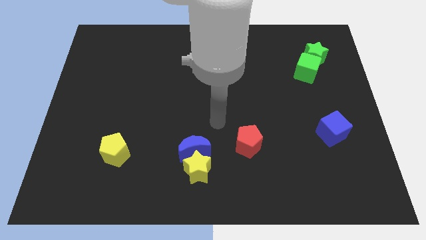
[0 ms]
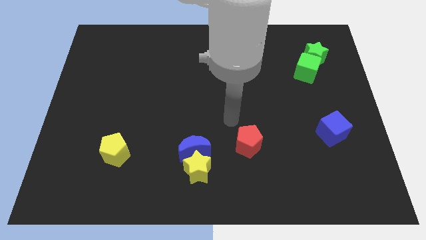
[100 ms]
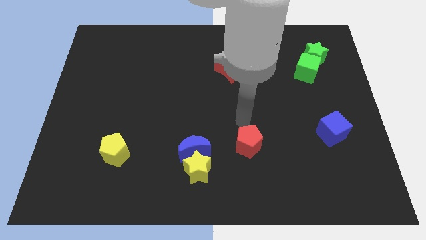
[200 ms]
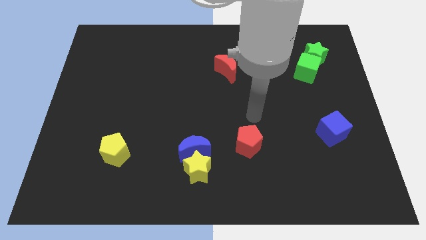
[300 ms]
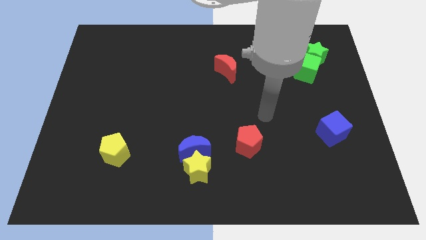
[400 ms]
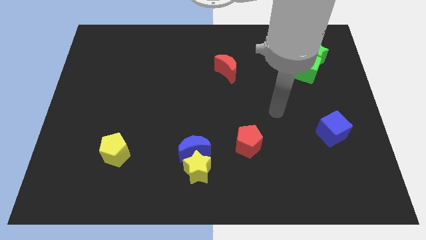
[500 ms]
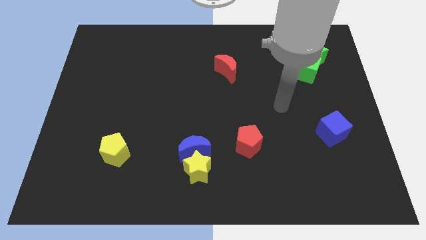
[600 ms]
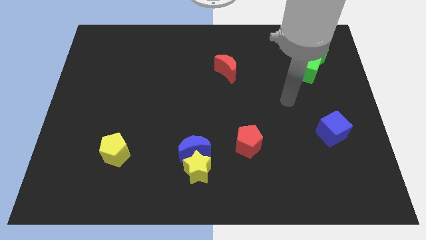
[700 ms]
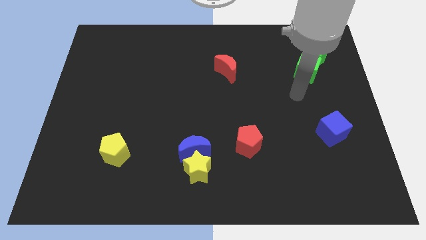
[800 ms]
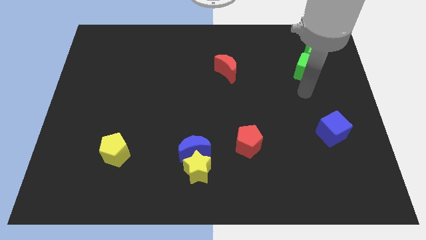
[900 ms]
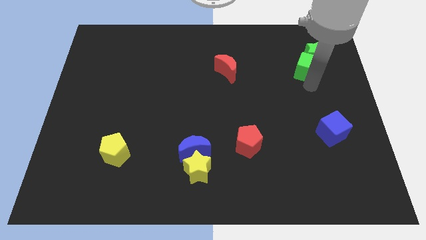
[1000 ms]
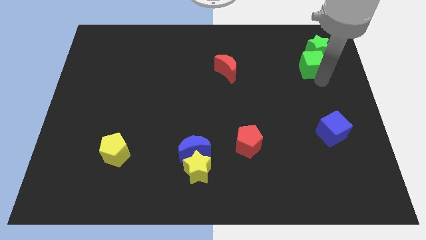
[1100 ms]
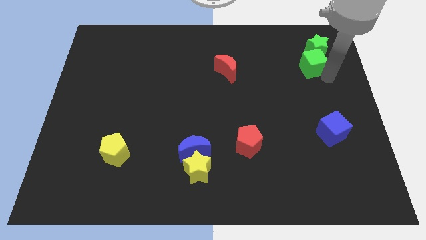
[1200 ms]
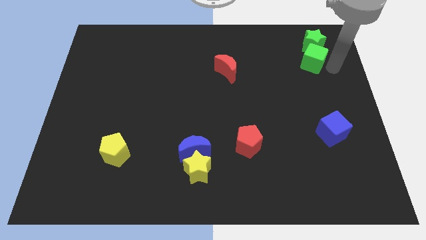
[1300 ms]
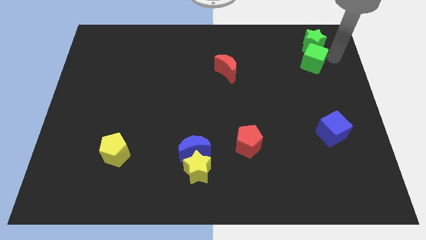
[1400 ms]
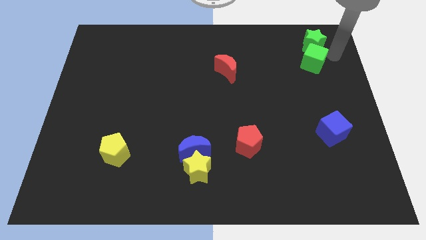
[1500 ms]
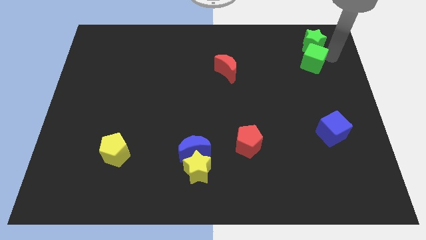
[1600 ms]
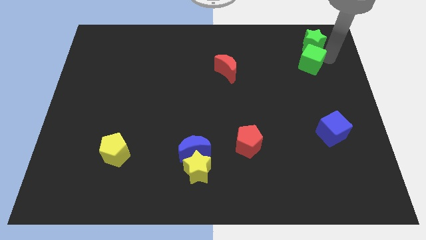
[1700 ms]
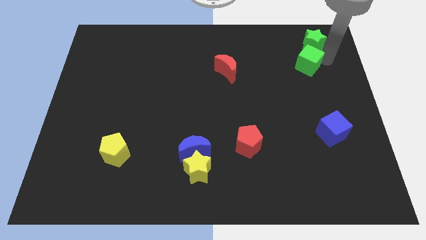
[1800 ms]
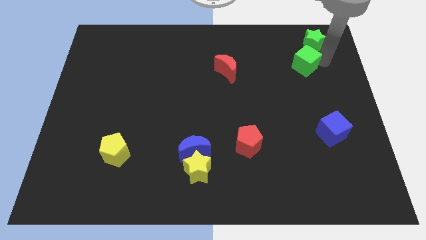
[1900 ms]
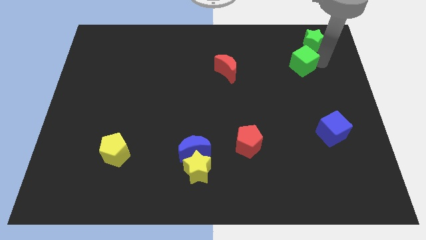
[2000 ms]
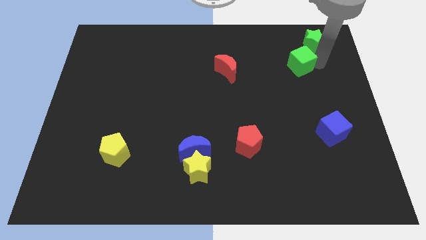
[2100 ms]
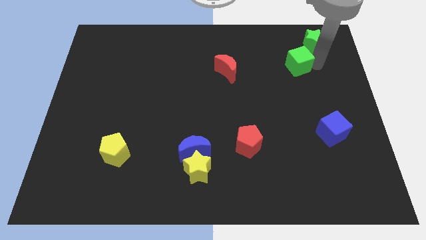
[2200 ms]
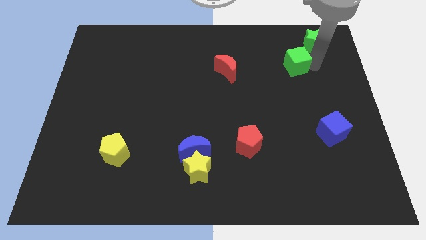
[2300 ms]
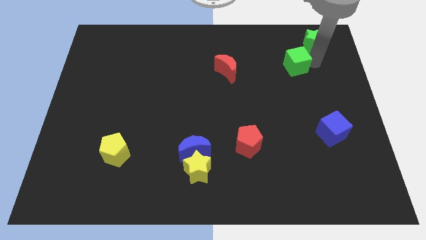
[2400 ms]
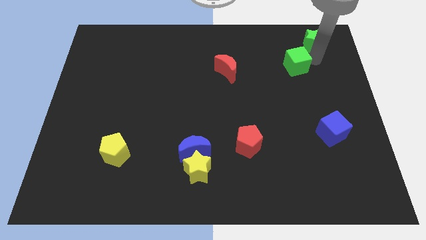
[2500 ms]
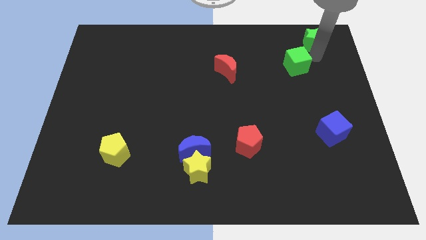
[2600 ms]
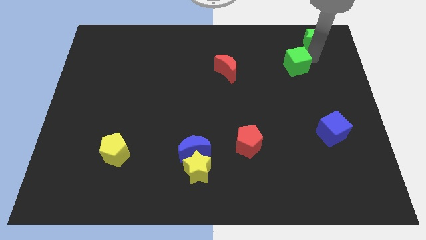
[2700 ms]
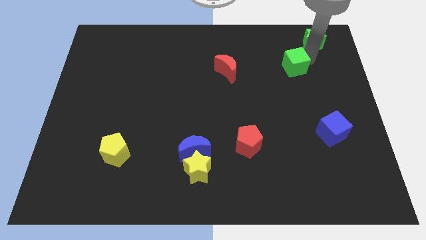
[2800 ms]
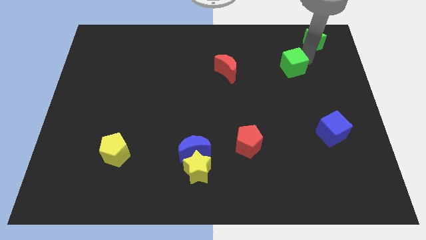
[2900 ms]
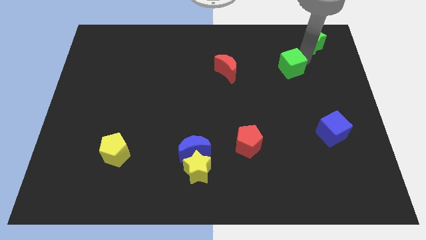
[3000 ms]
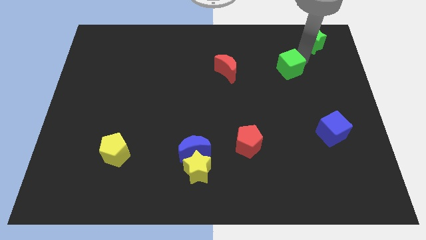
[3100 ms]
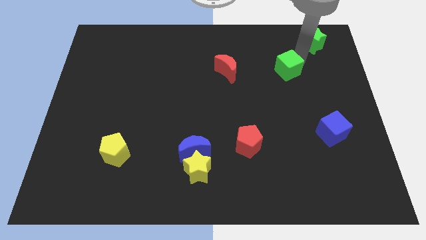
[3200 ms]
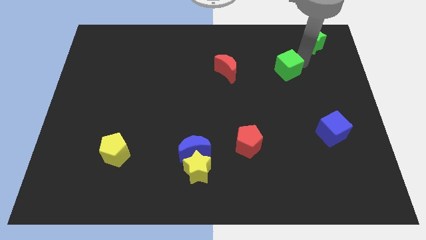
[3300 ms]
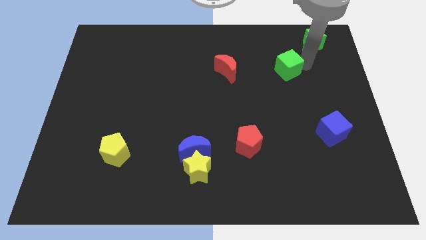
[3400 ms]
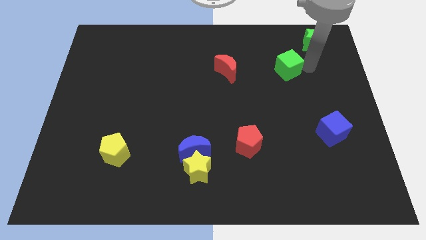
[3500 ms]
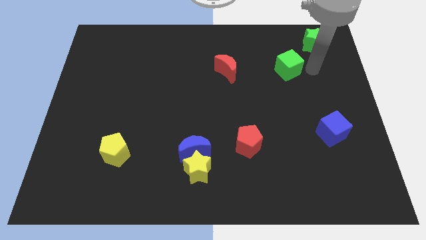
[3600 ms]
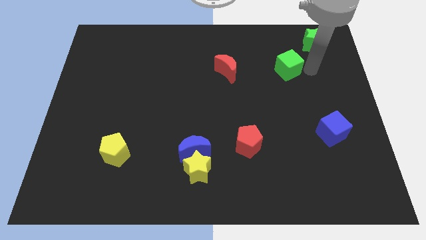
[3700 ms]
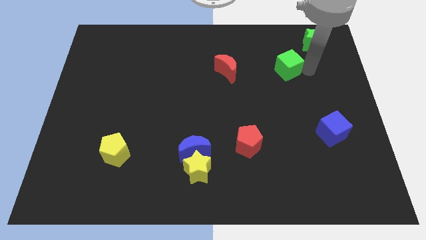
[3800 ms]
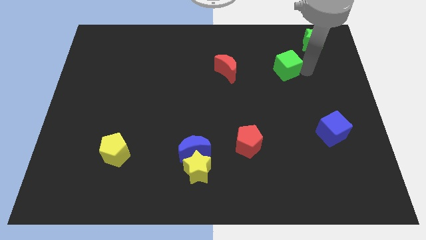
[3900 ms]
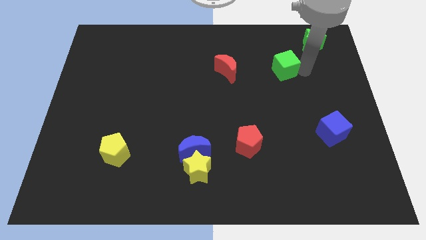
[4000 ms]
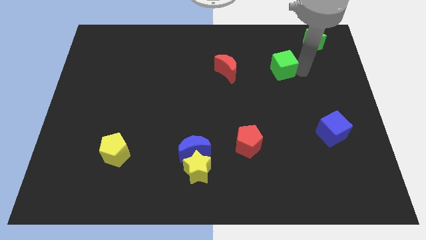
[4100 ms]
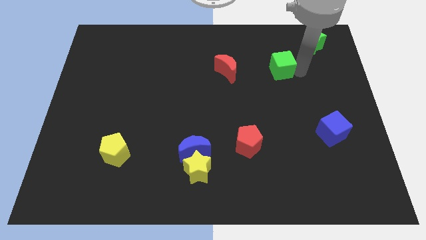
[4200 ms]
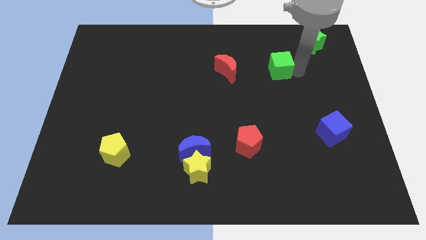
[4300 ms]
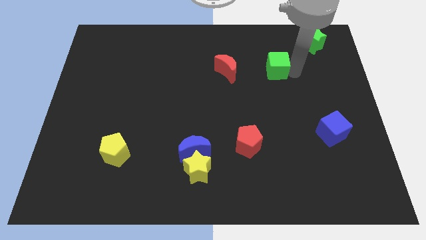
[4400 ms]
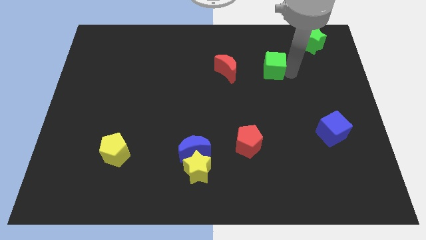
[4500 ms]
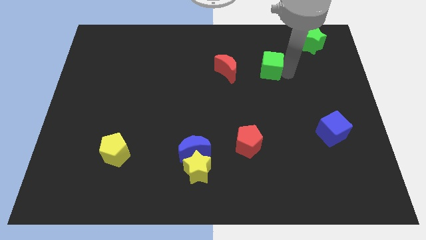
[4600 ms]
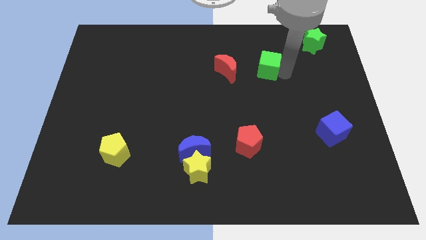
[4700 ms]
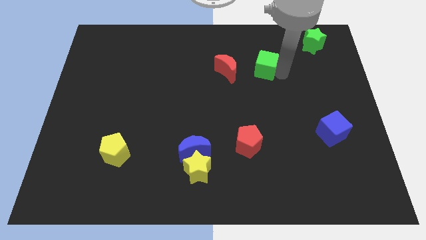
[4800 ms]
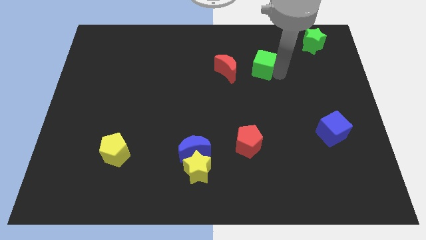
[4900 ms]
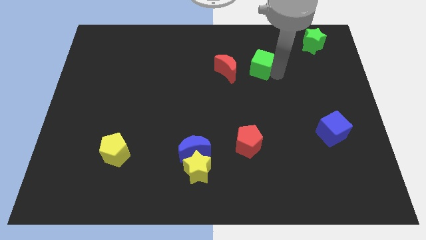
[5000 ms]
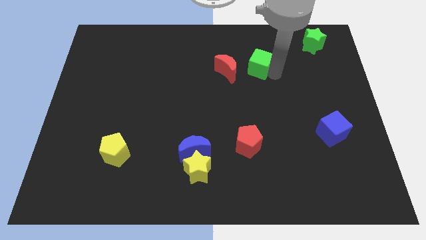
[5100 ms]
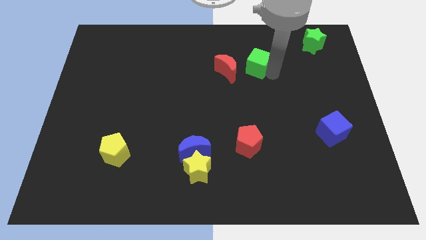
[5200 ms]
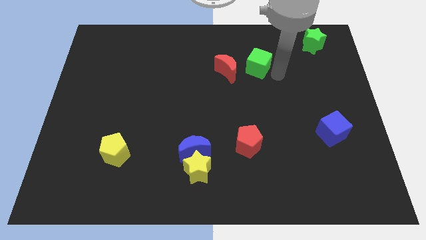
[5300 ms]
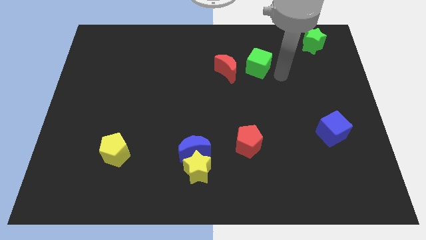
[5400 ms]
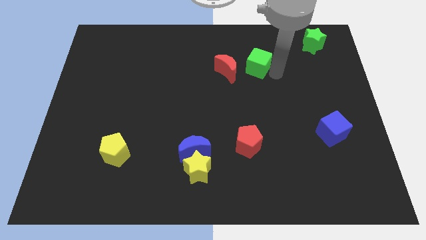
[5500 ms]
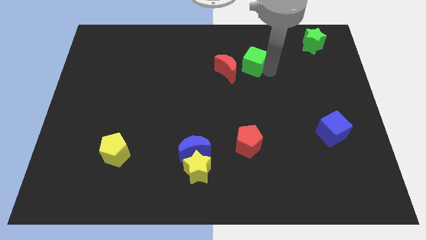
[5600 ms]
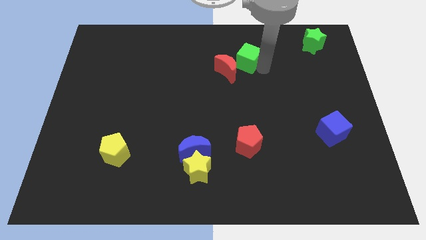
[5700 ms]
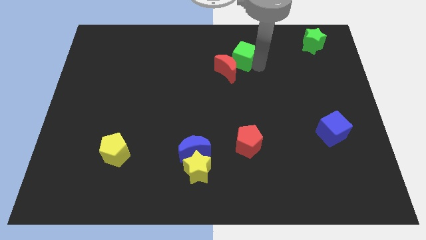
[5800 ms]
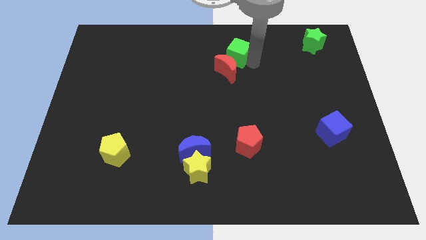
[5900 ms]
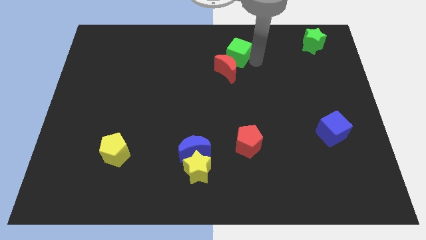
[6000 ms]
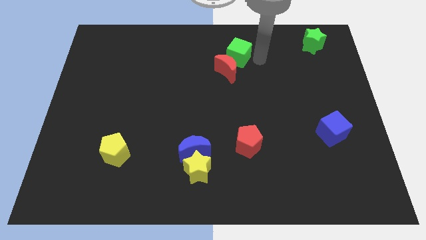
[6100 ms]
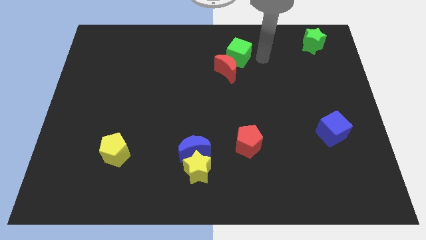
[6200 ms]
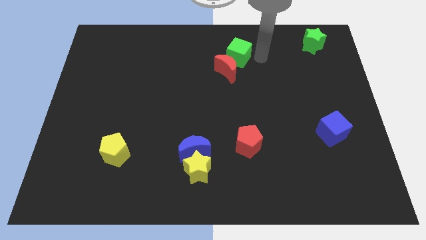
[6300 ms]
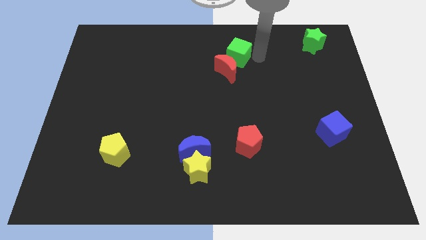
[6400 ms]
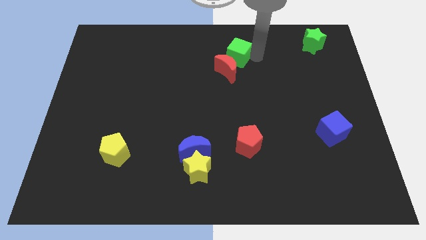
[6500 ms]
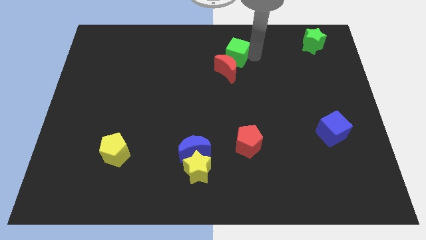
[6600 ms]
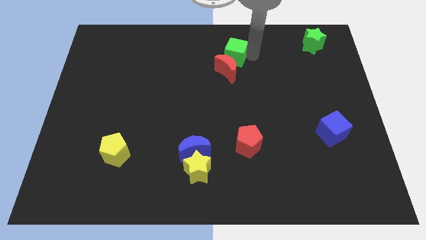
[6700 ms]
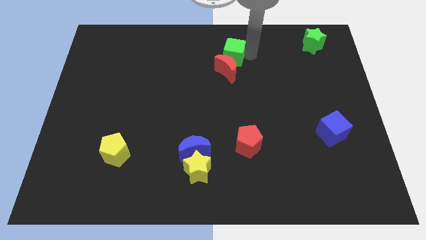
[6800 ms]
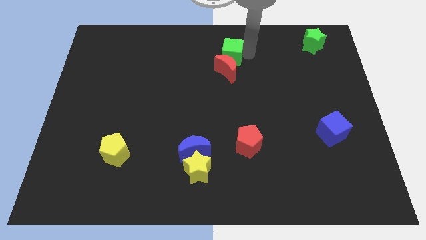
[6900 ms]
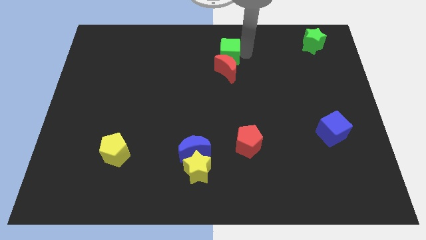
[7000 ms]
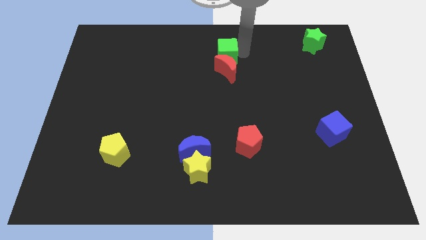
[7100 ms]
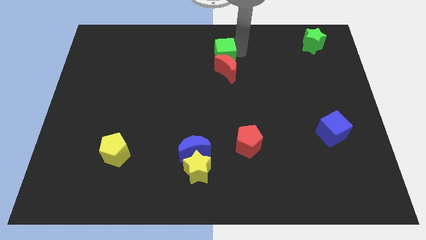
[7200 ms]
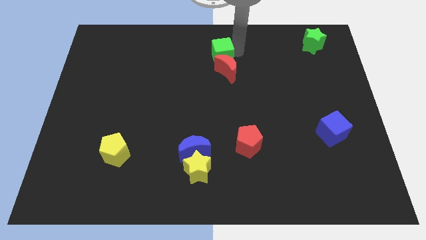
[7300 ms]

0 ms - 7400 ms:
move the green cube to the left

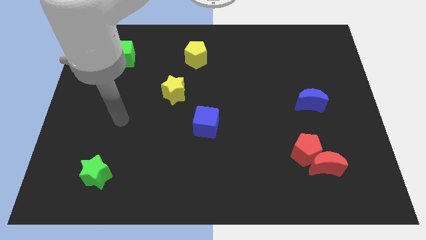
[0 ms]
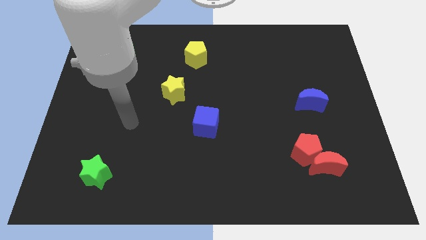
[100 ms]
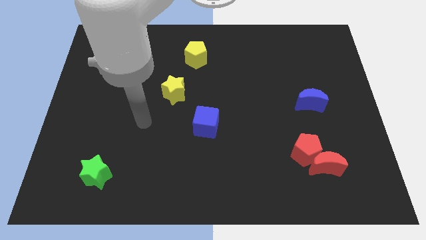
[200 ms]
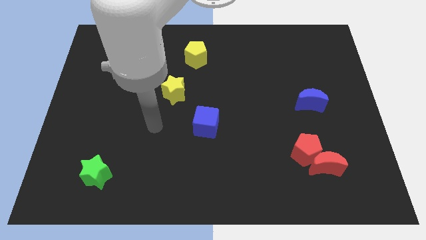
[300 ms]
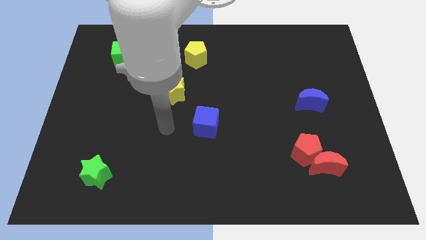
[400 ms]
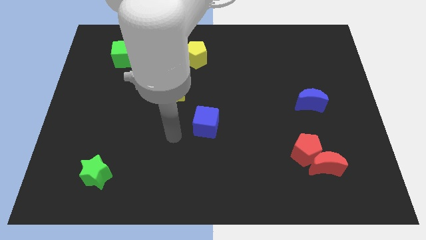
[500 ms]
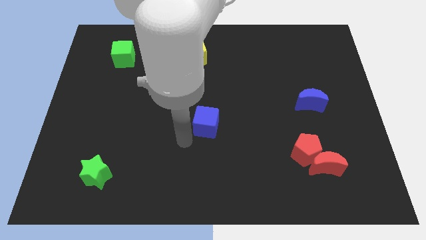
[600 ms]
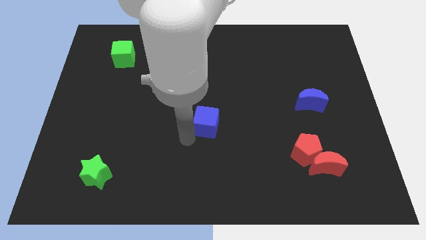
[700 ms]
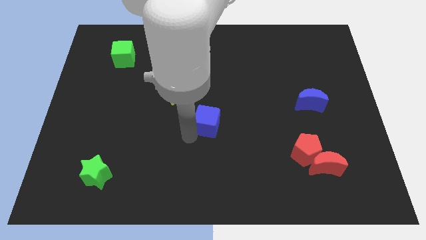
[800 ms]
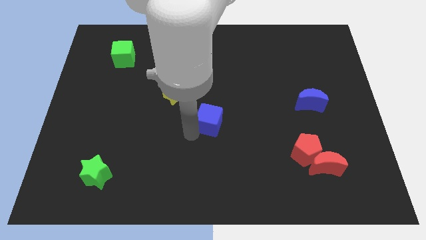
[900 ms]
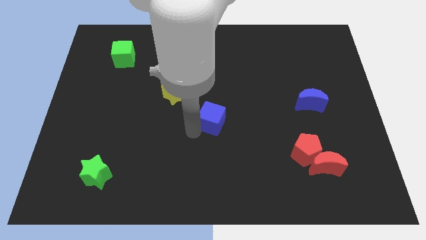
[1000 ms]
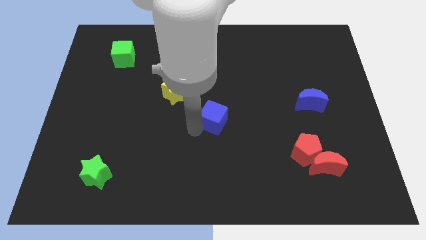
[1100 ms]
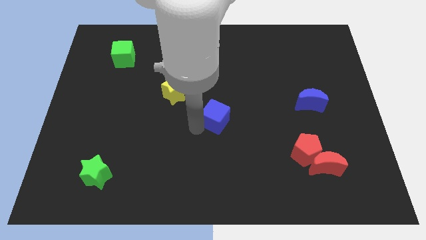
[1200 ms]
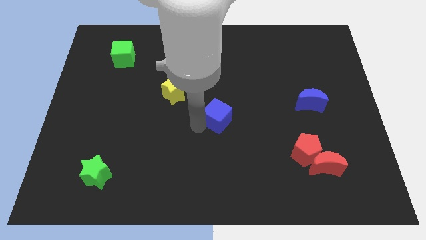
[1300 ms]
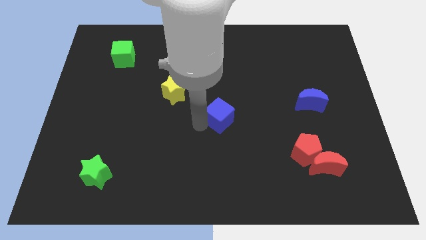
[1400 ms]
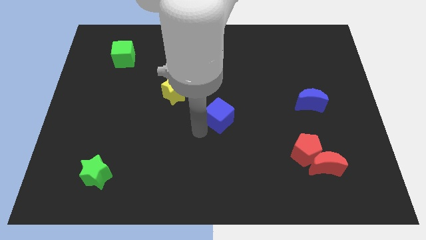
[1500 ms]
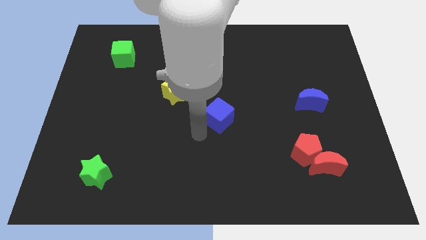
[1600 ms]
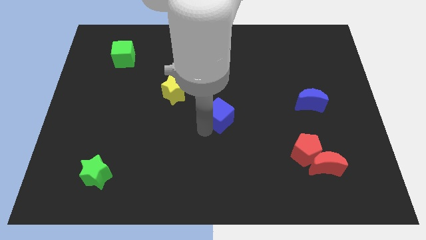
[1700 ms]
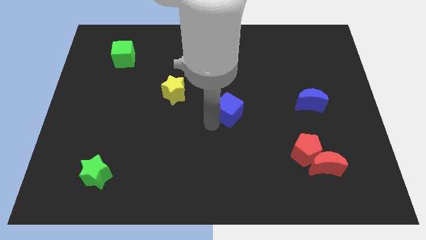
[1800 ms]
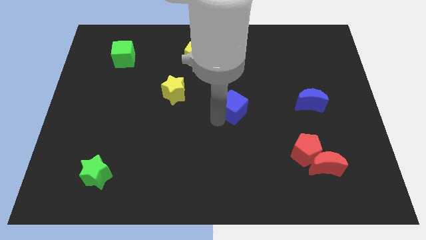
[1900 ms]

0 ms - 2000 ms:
slide the blue cube upwards and then right somewhat
